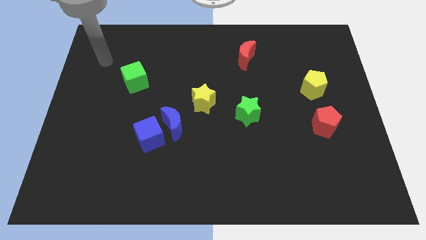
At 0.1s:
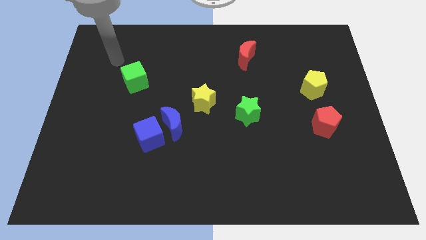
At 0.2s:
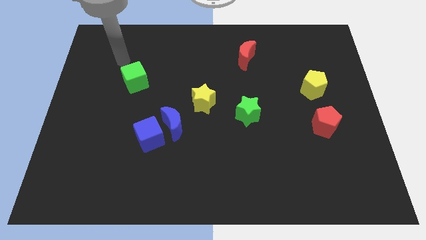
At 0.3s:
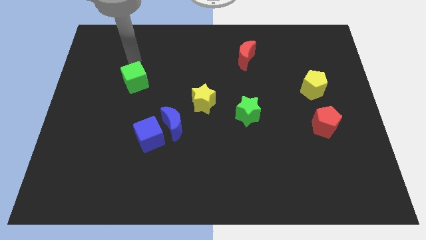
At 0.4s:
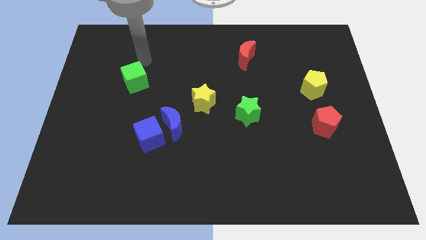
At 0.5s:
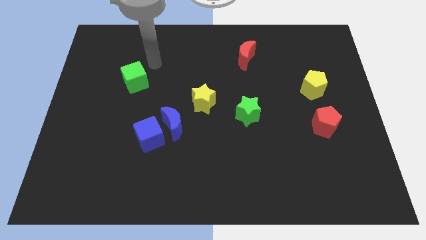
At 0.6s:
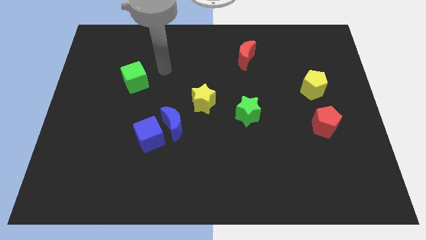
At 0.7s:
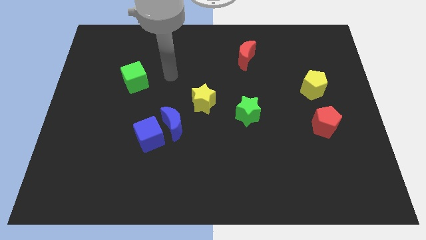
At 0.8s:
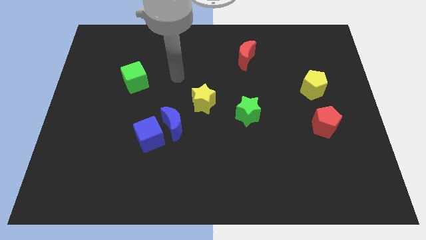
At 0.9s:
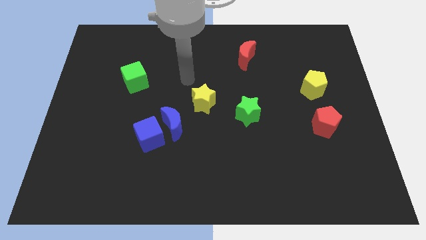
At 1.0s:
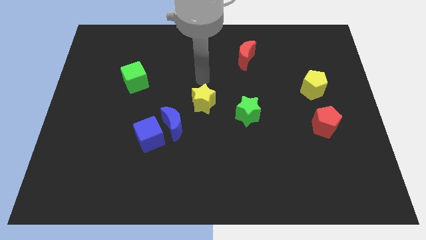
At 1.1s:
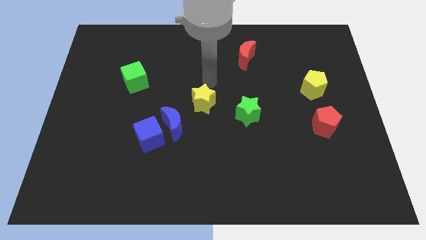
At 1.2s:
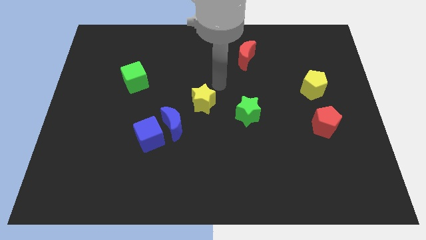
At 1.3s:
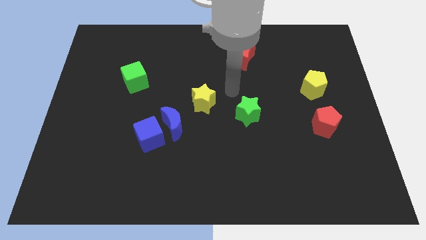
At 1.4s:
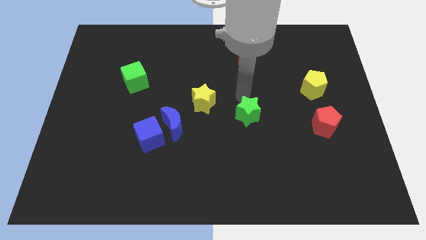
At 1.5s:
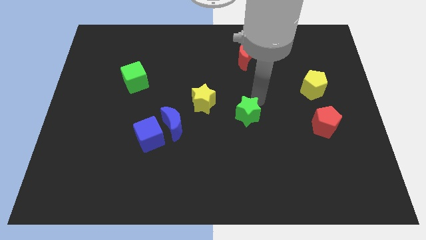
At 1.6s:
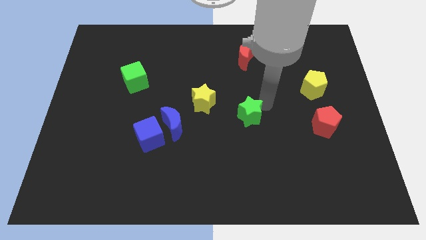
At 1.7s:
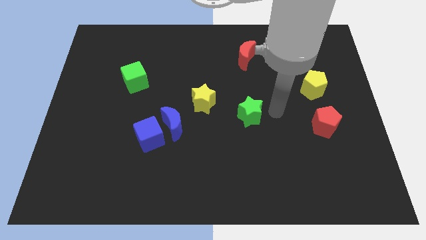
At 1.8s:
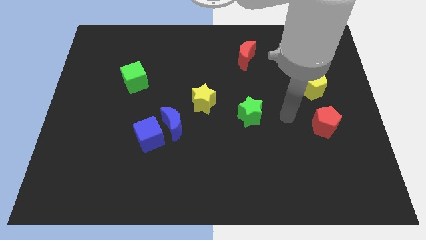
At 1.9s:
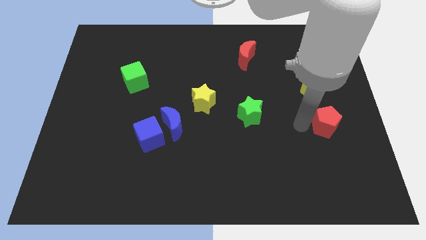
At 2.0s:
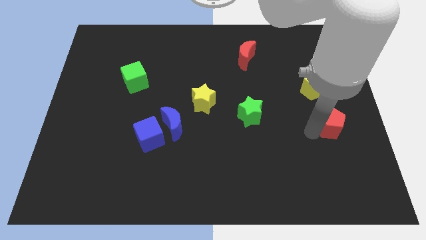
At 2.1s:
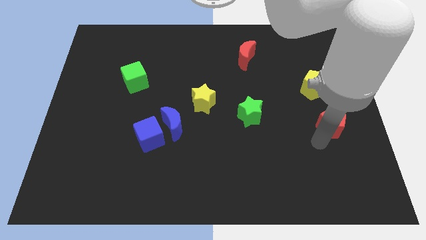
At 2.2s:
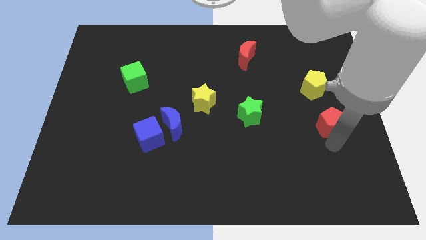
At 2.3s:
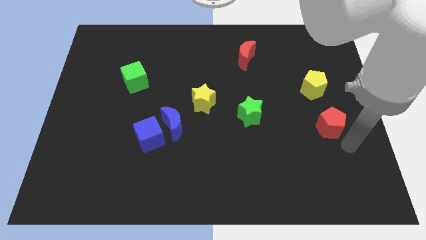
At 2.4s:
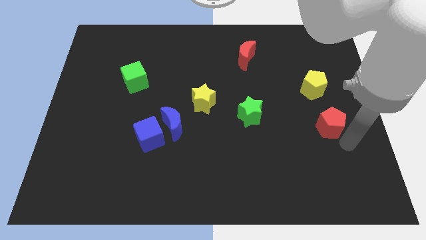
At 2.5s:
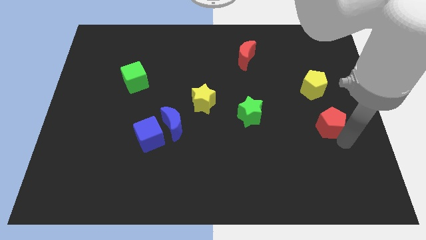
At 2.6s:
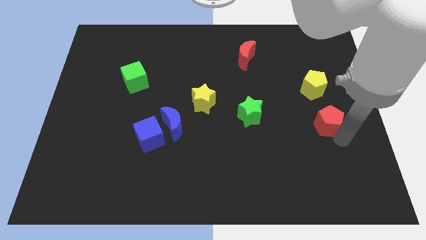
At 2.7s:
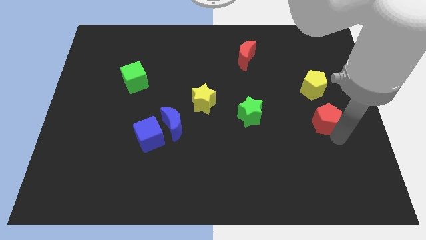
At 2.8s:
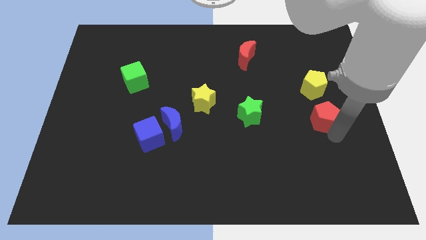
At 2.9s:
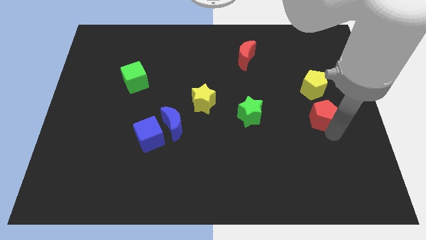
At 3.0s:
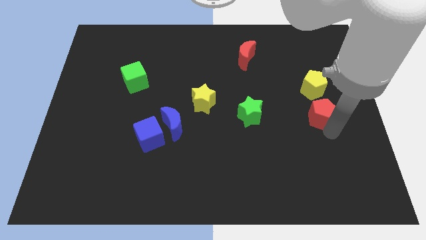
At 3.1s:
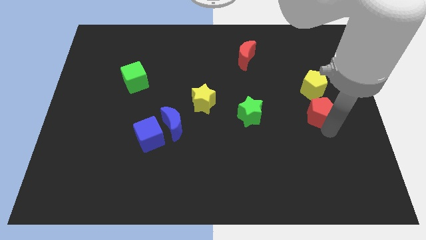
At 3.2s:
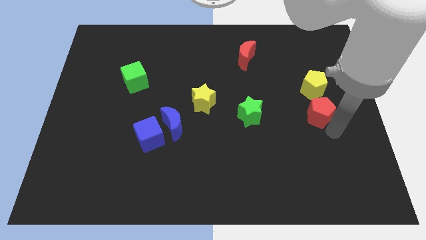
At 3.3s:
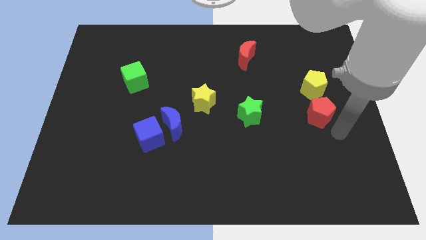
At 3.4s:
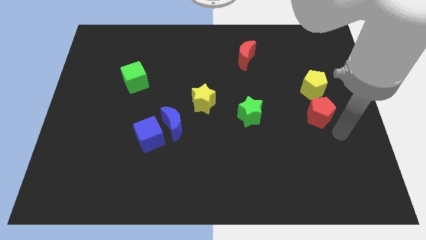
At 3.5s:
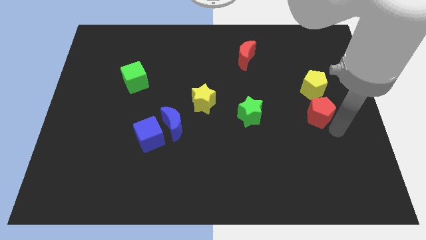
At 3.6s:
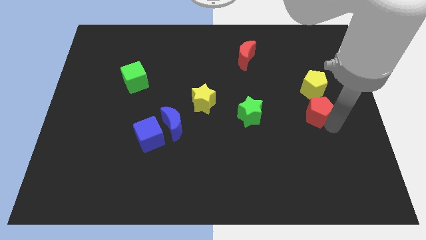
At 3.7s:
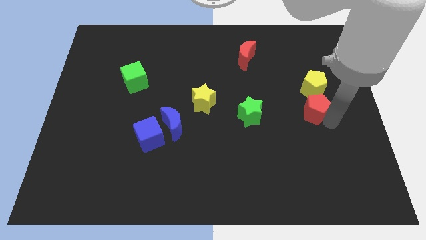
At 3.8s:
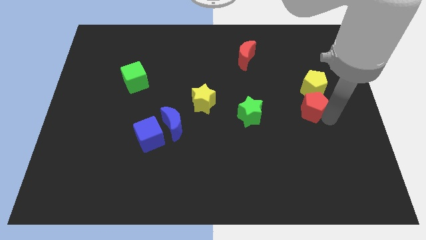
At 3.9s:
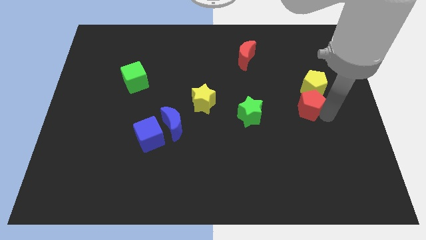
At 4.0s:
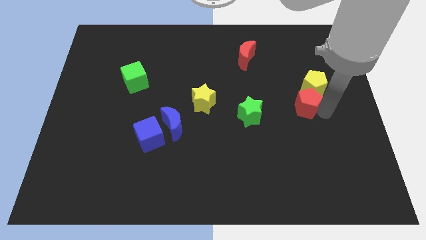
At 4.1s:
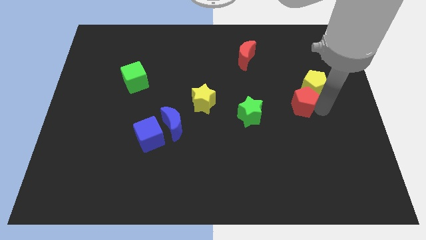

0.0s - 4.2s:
slide the red pentagon diagonally upwards and left somewhat

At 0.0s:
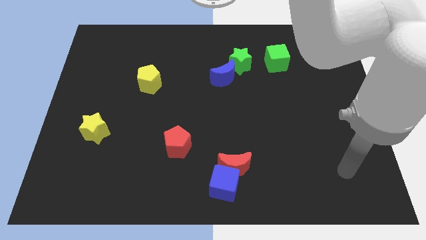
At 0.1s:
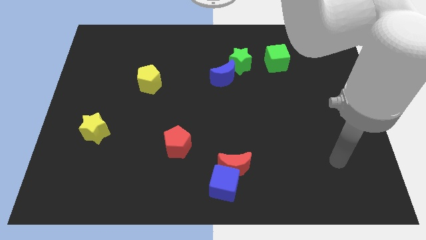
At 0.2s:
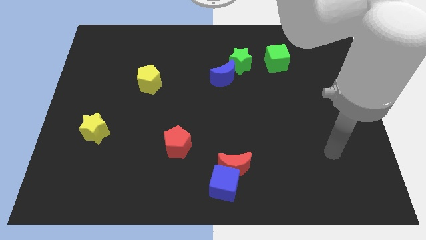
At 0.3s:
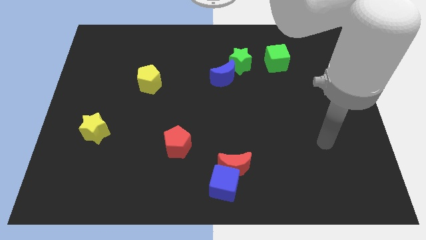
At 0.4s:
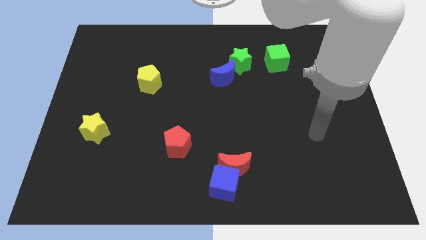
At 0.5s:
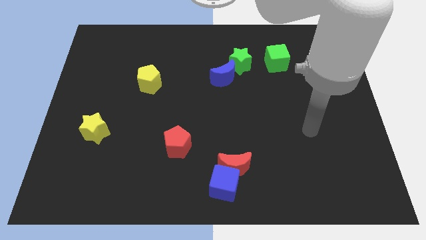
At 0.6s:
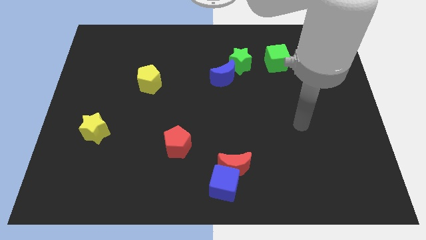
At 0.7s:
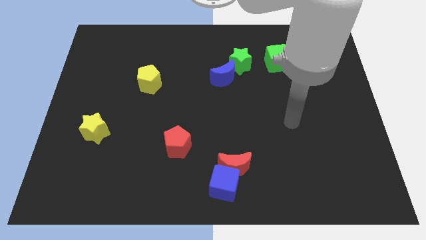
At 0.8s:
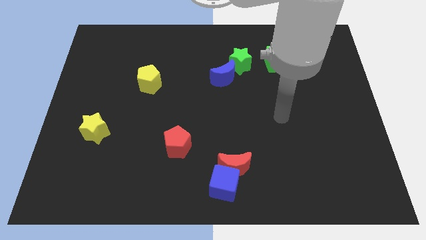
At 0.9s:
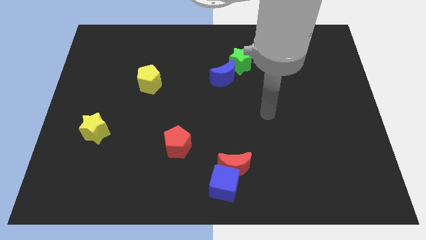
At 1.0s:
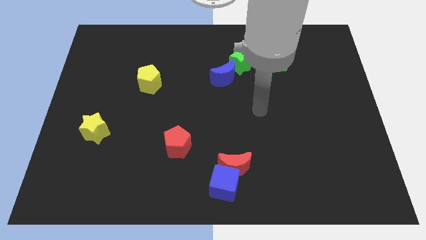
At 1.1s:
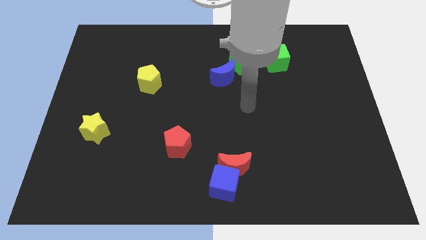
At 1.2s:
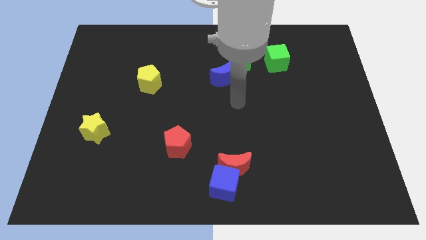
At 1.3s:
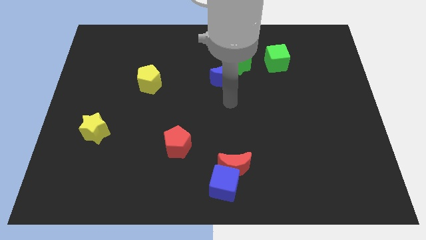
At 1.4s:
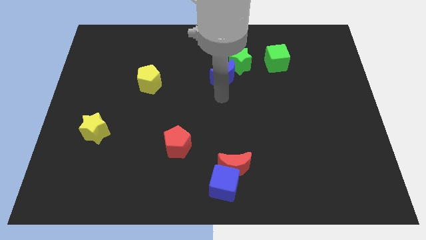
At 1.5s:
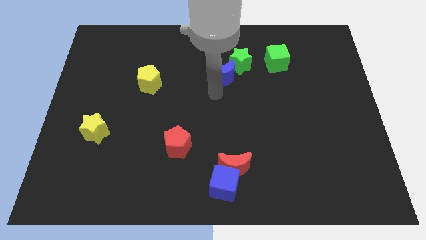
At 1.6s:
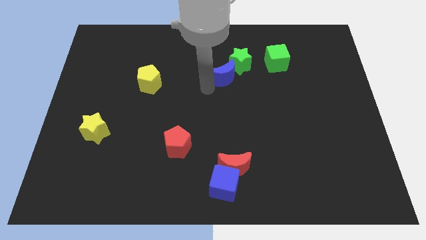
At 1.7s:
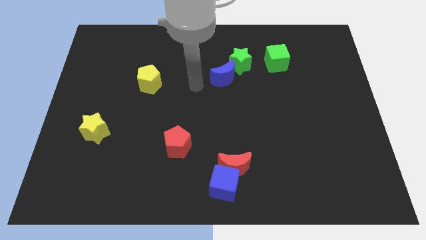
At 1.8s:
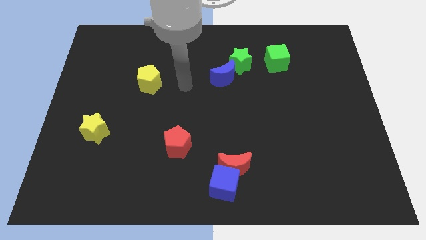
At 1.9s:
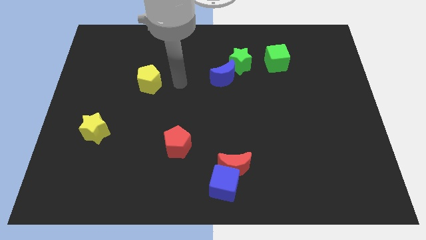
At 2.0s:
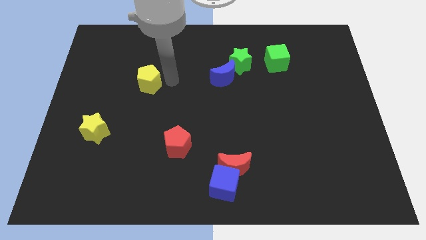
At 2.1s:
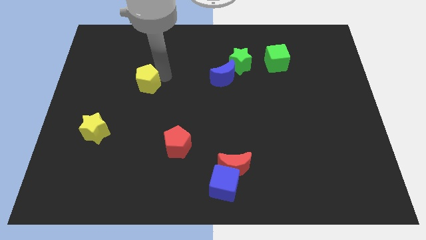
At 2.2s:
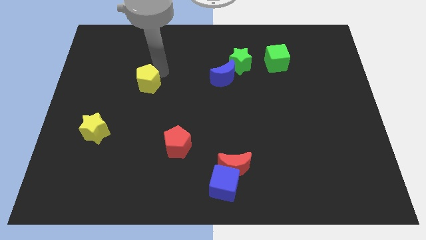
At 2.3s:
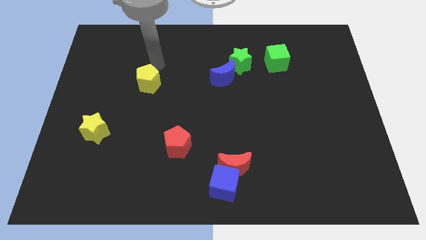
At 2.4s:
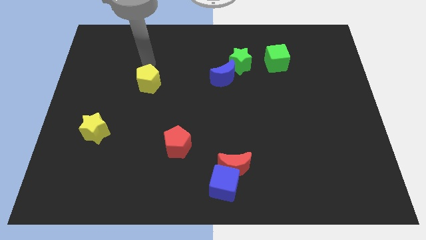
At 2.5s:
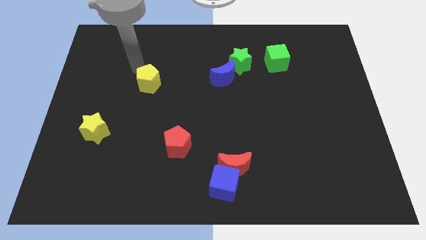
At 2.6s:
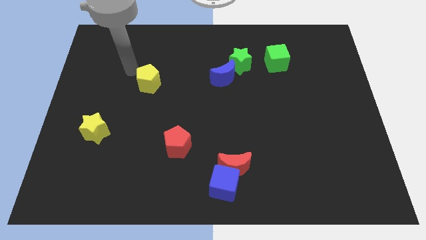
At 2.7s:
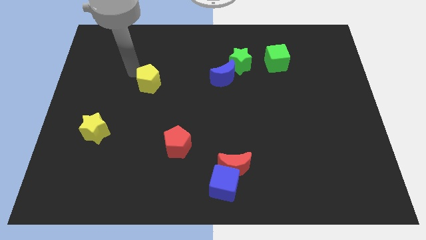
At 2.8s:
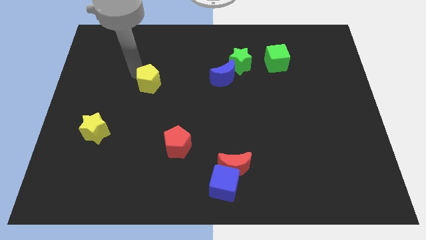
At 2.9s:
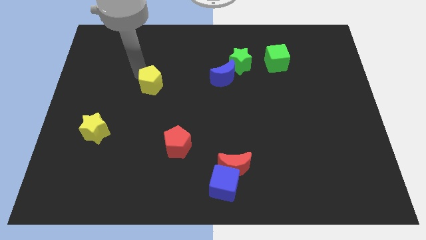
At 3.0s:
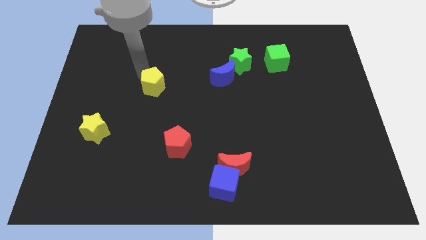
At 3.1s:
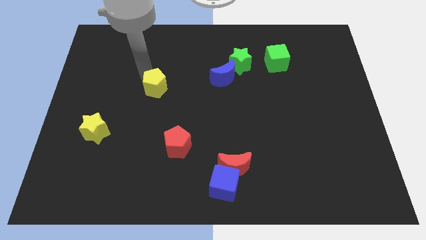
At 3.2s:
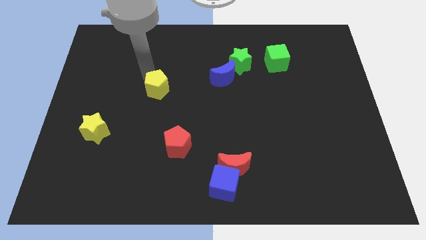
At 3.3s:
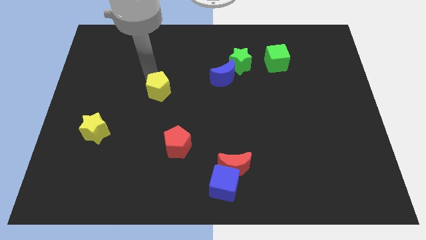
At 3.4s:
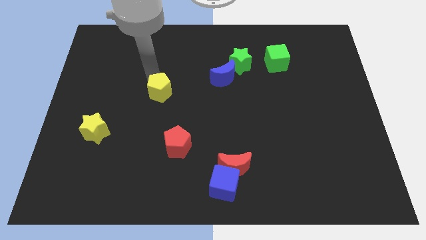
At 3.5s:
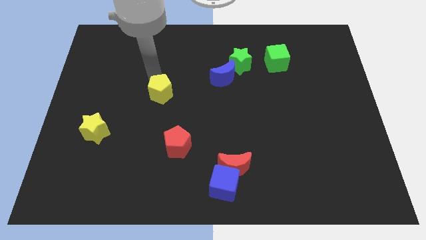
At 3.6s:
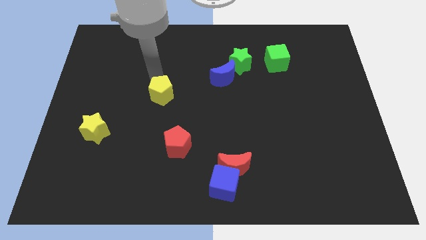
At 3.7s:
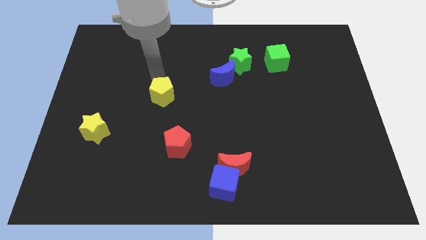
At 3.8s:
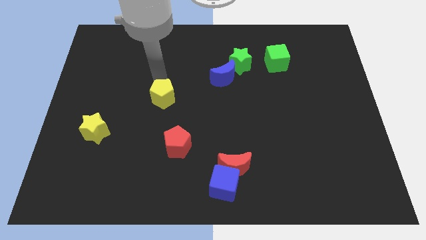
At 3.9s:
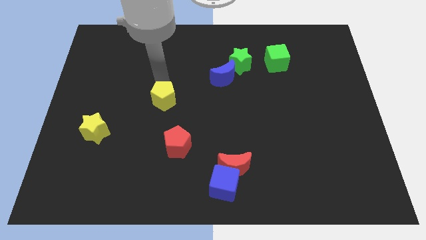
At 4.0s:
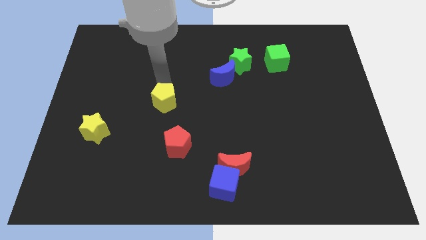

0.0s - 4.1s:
move the yellow pentagon diagonally downwards and to the right a little bit
